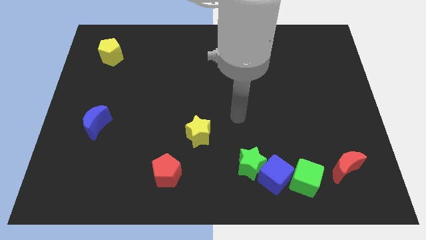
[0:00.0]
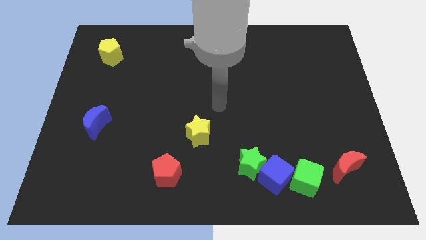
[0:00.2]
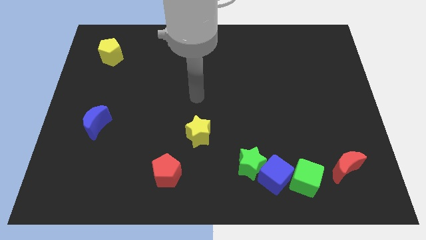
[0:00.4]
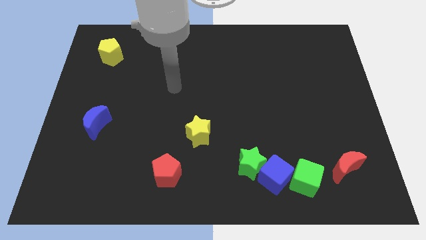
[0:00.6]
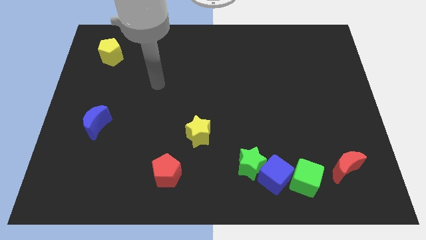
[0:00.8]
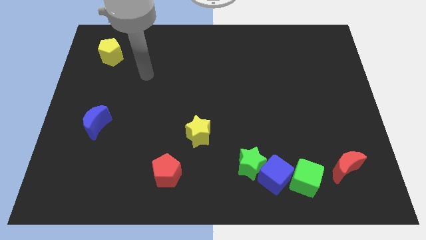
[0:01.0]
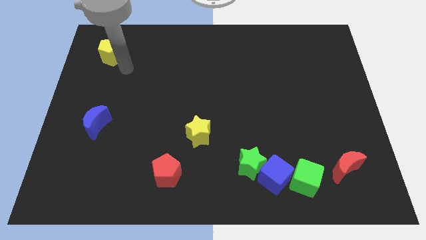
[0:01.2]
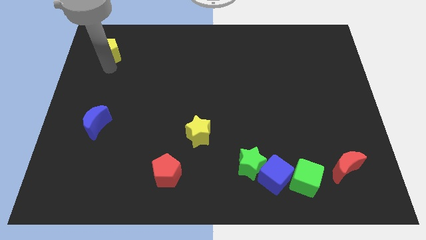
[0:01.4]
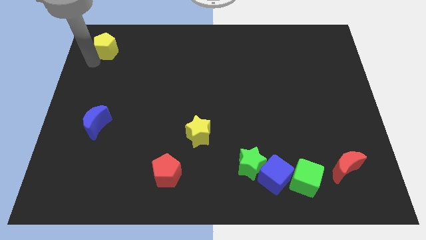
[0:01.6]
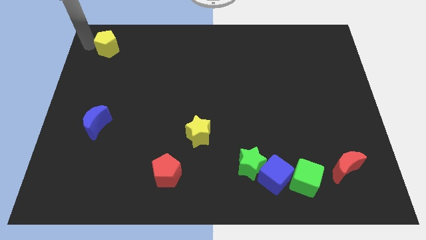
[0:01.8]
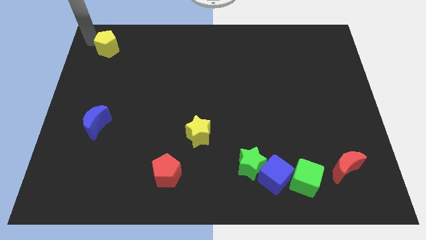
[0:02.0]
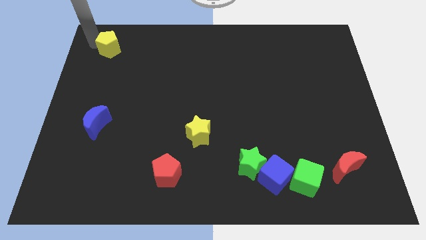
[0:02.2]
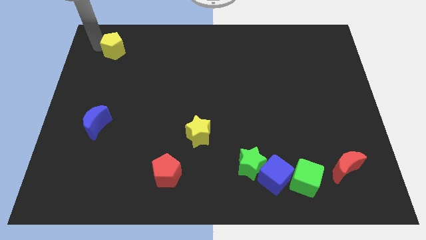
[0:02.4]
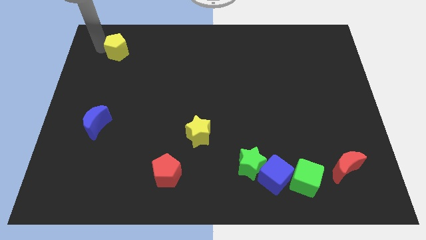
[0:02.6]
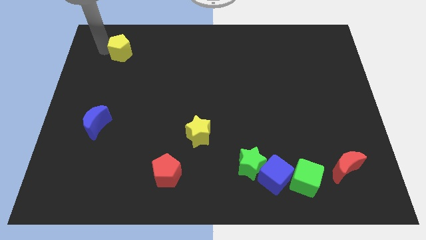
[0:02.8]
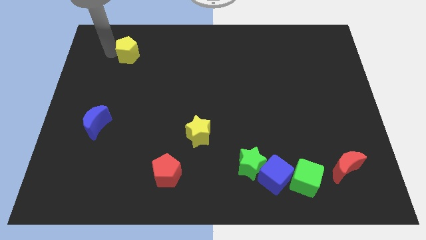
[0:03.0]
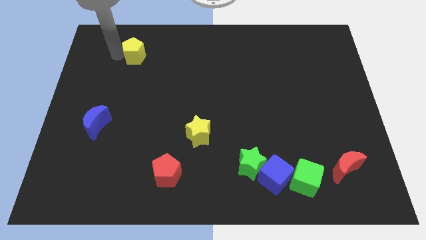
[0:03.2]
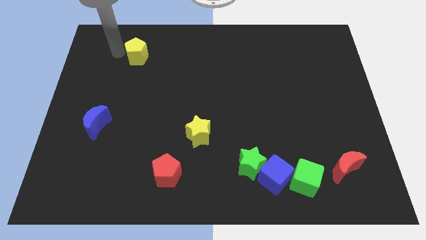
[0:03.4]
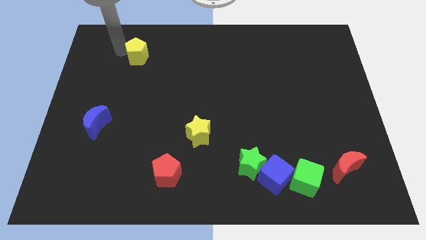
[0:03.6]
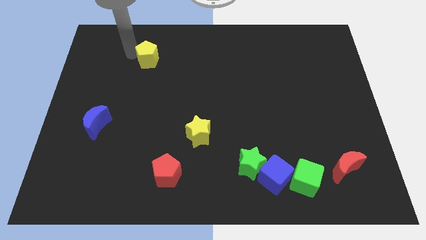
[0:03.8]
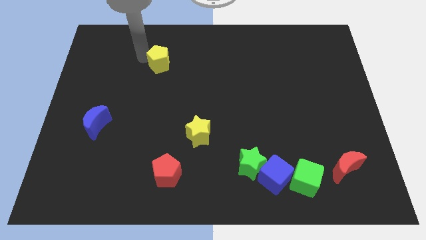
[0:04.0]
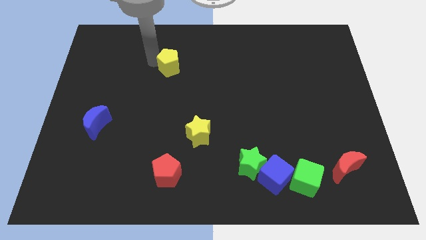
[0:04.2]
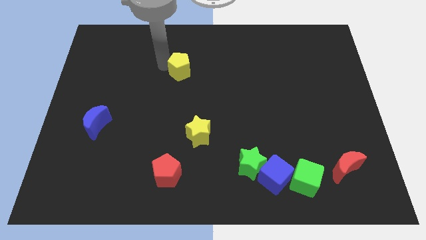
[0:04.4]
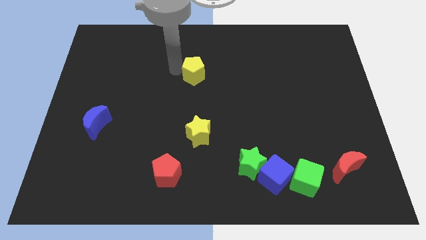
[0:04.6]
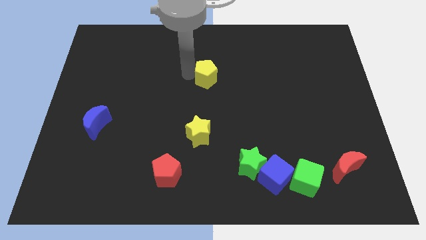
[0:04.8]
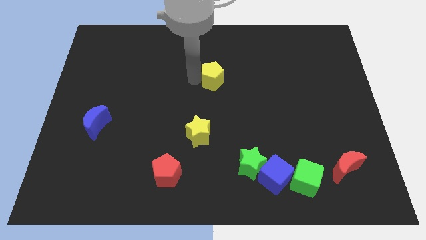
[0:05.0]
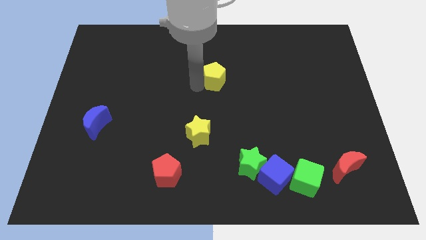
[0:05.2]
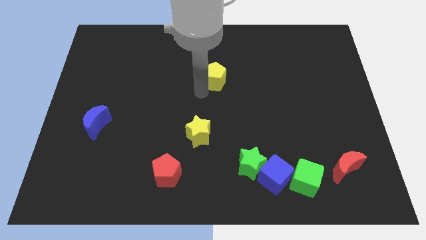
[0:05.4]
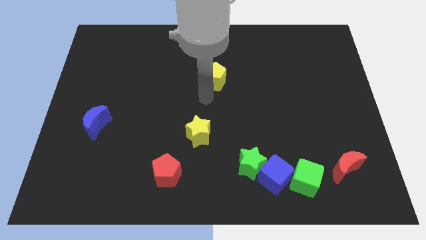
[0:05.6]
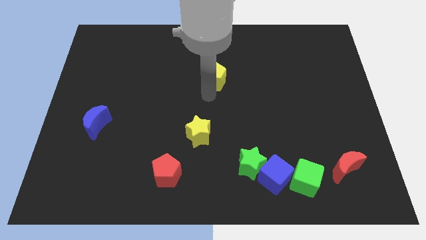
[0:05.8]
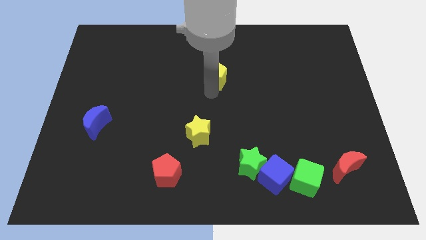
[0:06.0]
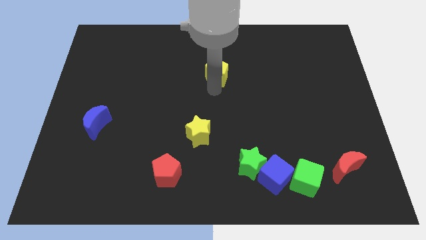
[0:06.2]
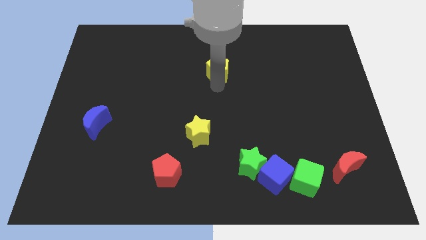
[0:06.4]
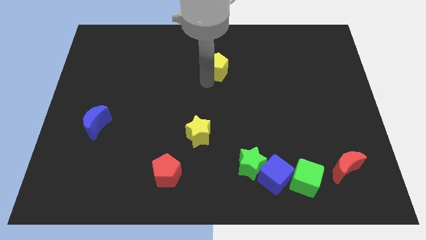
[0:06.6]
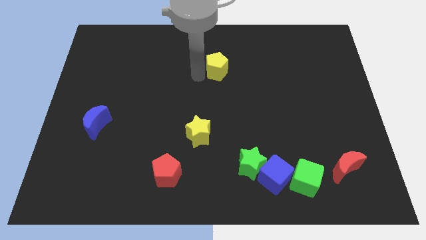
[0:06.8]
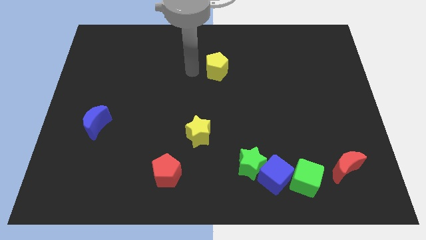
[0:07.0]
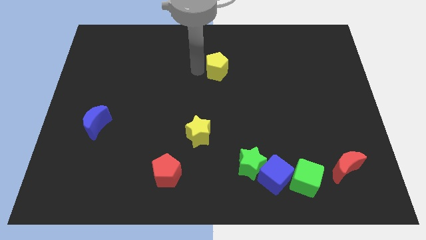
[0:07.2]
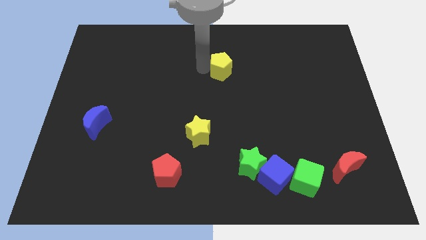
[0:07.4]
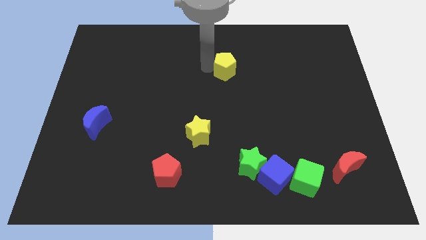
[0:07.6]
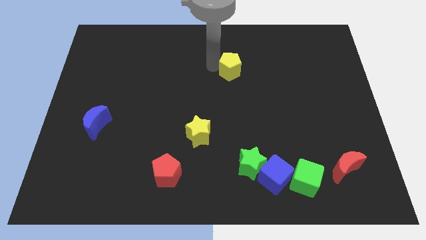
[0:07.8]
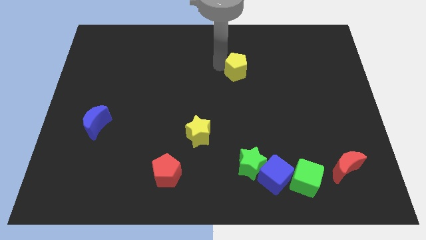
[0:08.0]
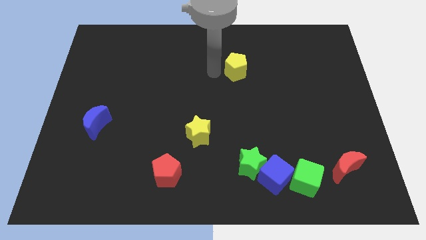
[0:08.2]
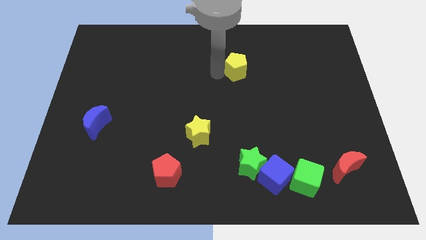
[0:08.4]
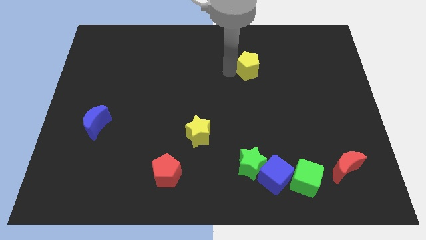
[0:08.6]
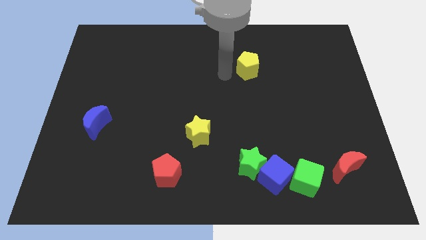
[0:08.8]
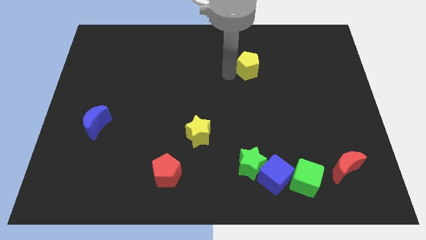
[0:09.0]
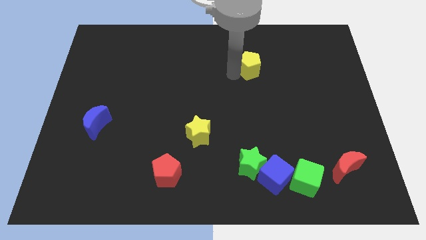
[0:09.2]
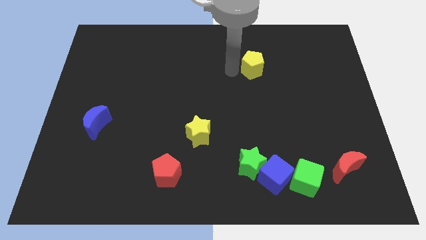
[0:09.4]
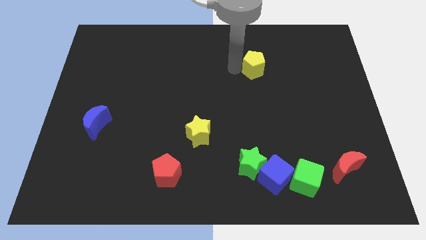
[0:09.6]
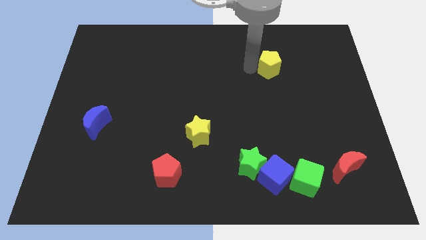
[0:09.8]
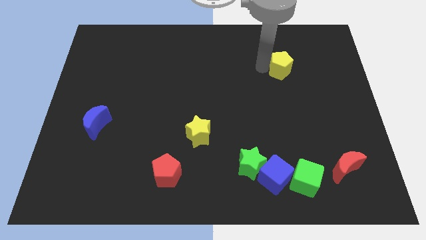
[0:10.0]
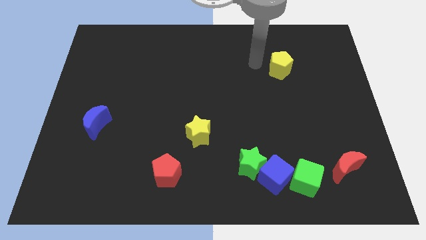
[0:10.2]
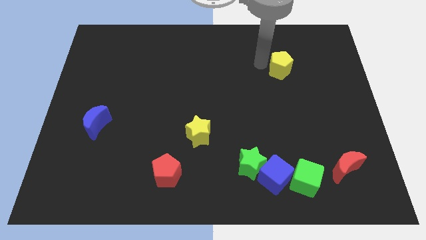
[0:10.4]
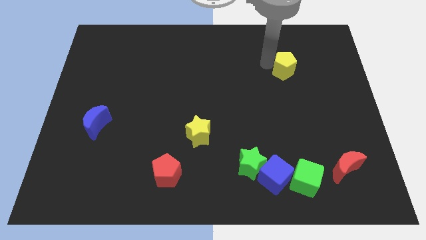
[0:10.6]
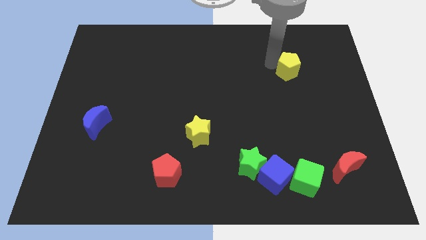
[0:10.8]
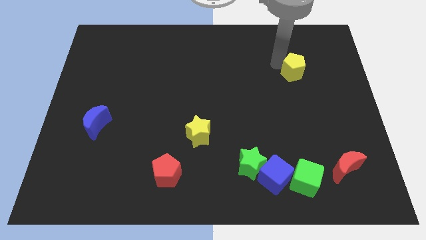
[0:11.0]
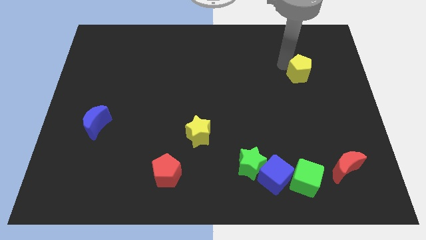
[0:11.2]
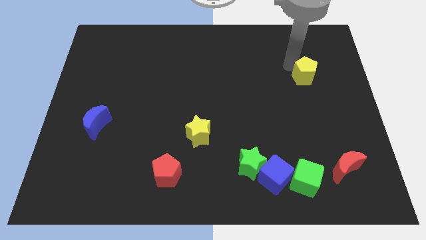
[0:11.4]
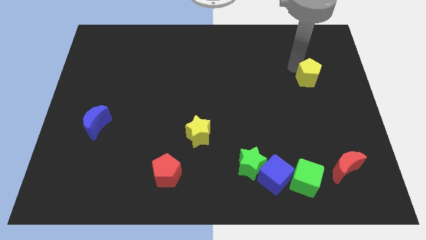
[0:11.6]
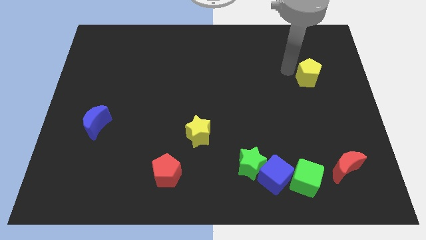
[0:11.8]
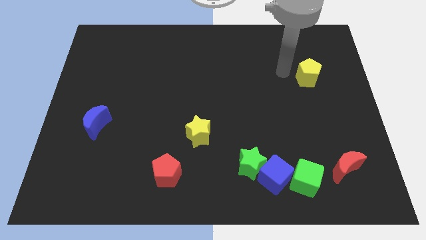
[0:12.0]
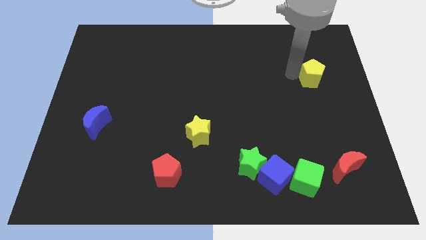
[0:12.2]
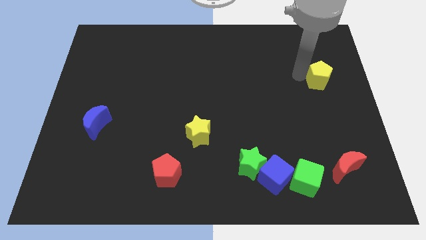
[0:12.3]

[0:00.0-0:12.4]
move the yellow pentagon to the center right

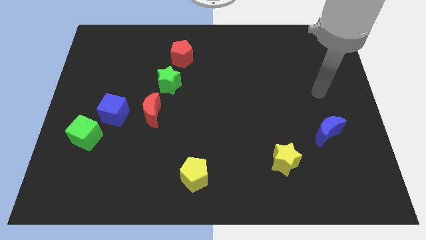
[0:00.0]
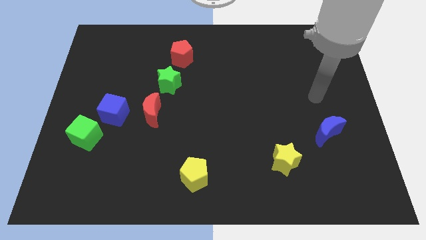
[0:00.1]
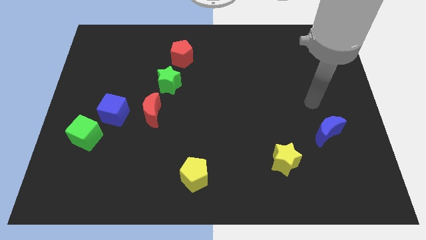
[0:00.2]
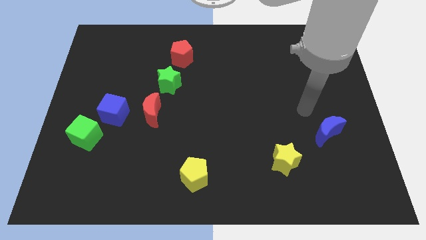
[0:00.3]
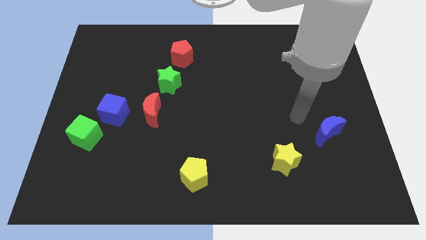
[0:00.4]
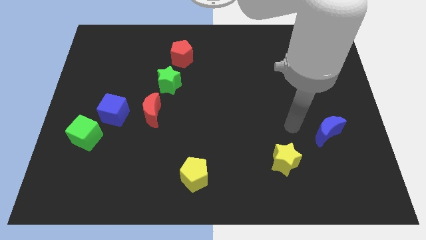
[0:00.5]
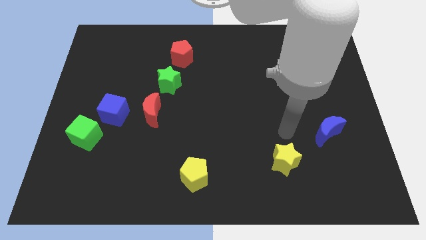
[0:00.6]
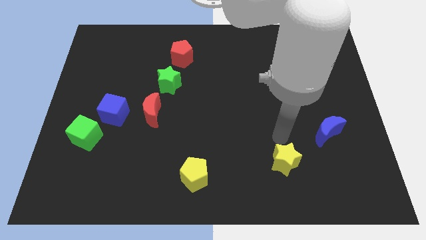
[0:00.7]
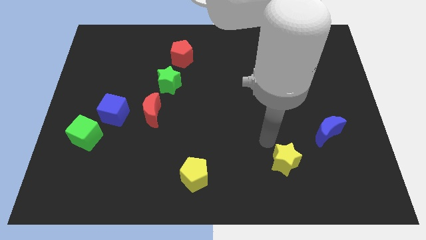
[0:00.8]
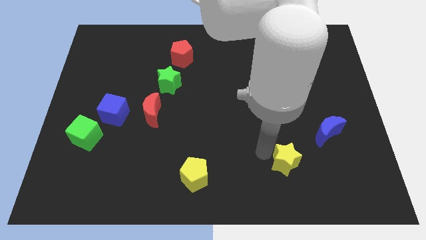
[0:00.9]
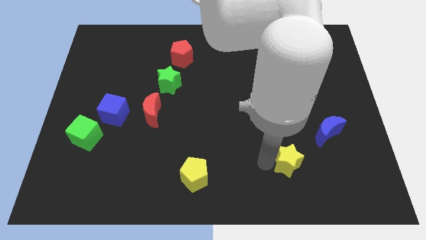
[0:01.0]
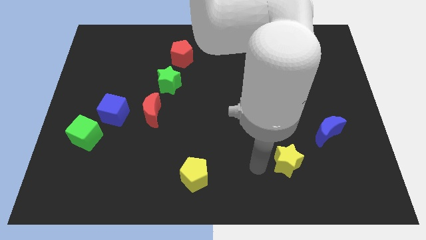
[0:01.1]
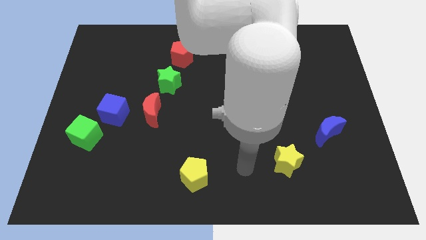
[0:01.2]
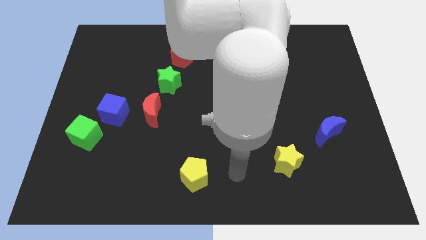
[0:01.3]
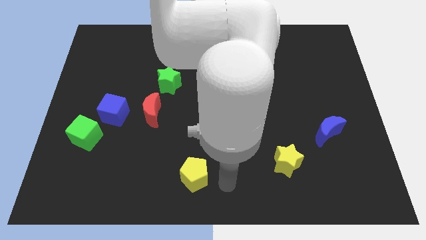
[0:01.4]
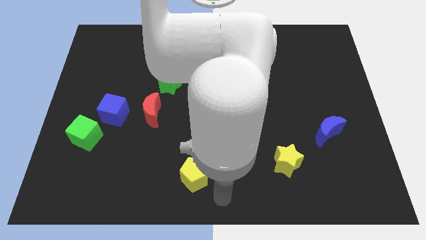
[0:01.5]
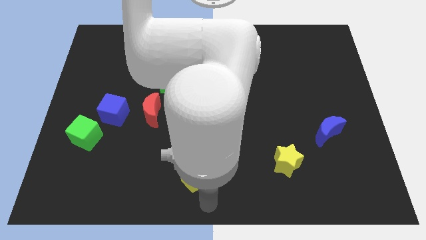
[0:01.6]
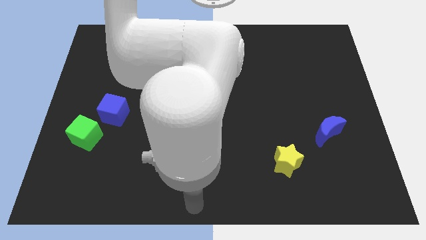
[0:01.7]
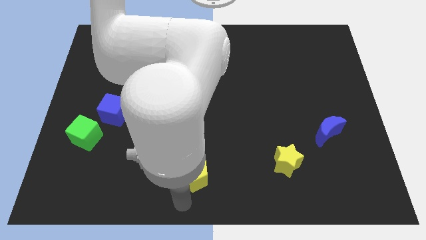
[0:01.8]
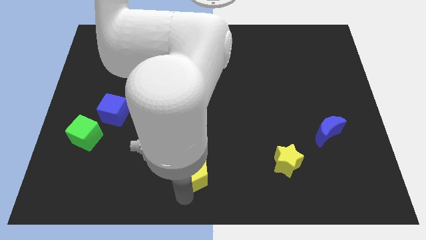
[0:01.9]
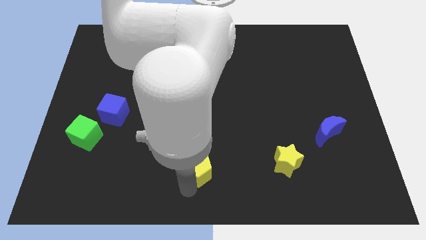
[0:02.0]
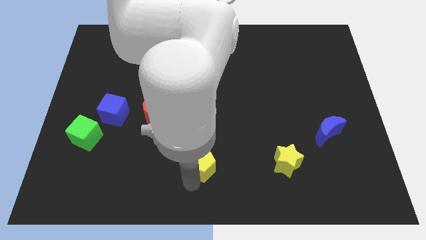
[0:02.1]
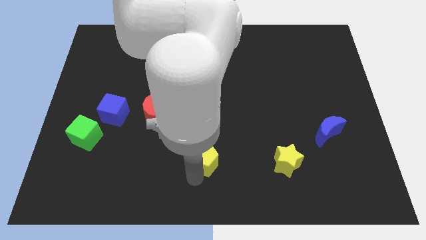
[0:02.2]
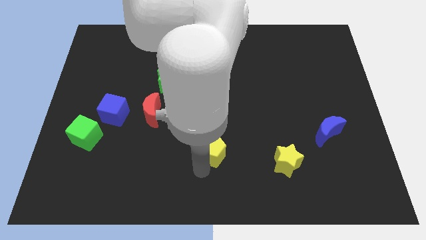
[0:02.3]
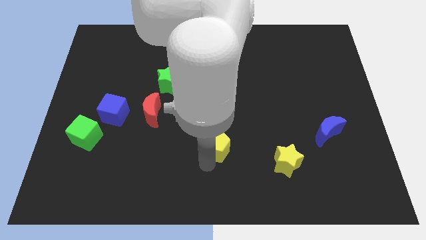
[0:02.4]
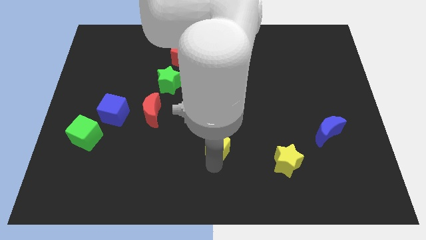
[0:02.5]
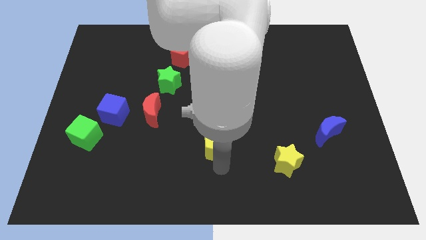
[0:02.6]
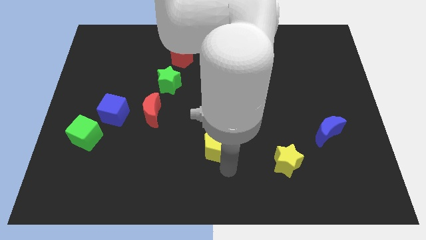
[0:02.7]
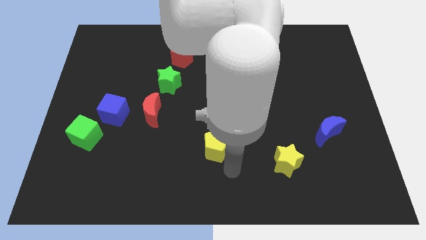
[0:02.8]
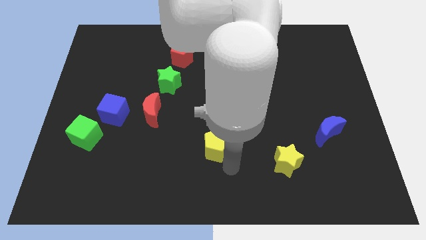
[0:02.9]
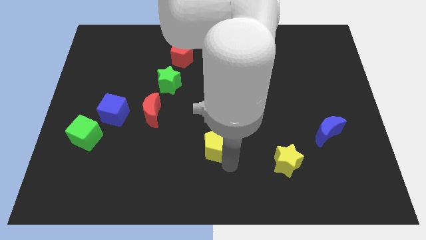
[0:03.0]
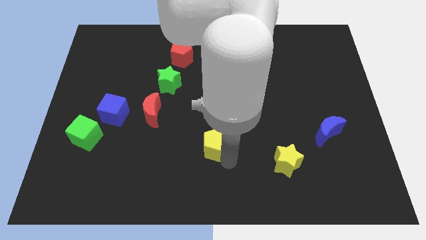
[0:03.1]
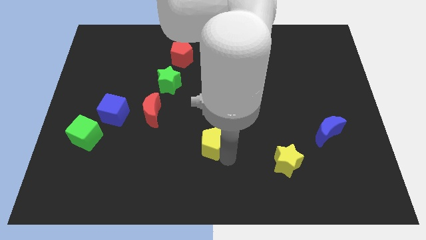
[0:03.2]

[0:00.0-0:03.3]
move the yellow pentagon to the middle
